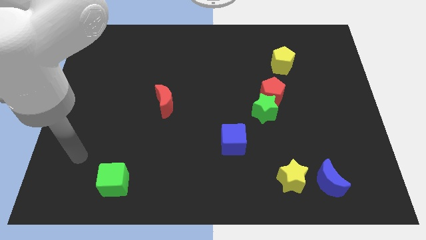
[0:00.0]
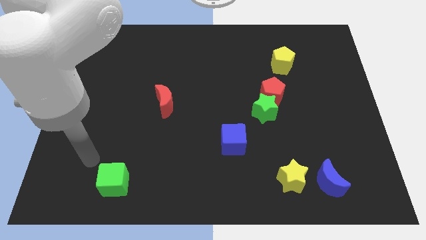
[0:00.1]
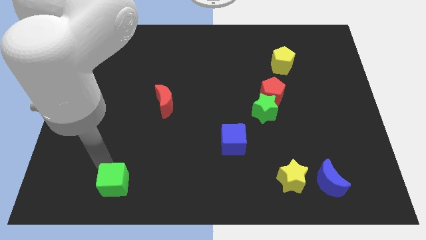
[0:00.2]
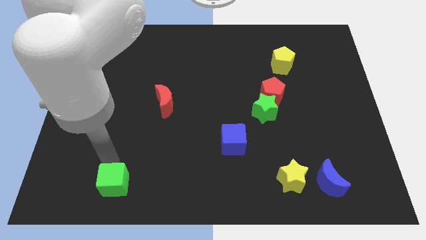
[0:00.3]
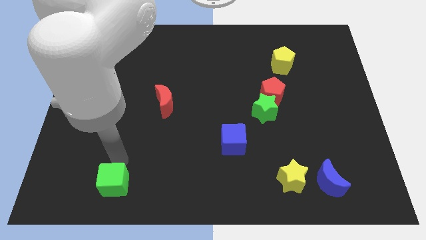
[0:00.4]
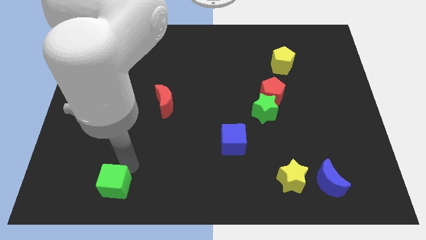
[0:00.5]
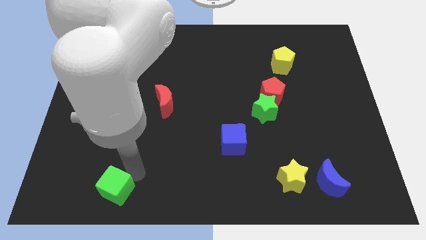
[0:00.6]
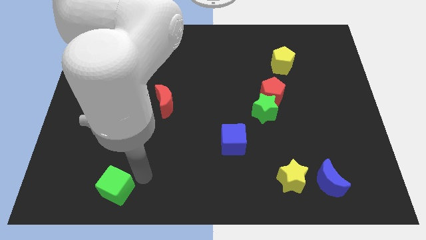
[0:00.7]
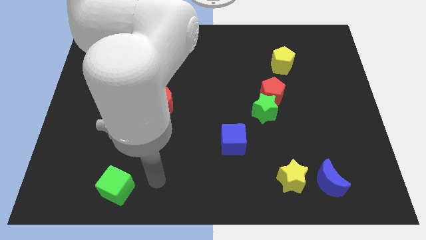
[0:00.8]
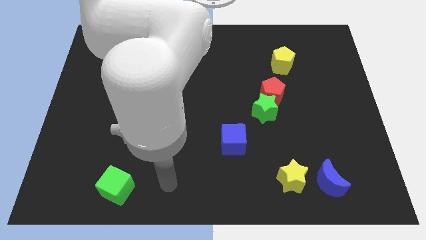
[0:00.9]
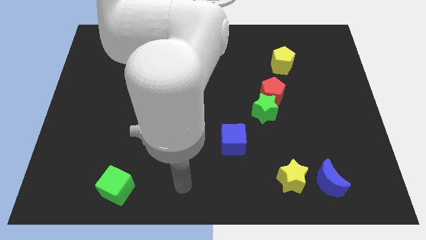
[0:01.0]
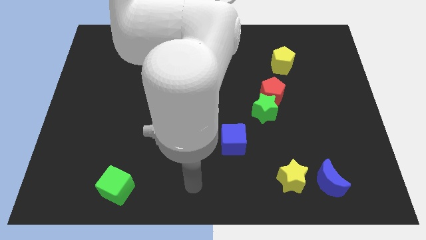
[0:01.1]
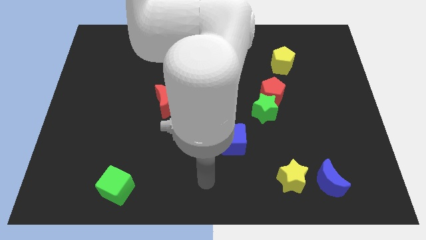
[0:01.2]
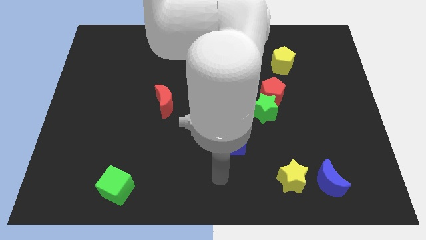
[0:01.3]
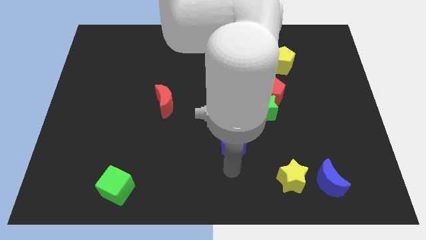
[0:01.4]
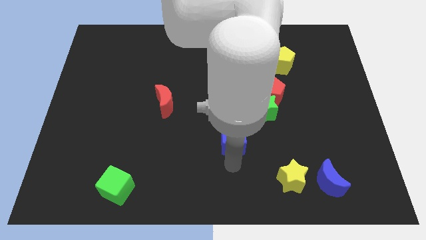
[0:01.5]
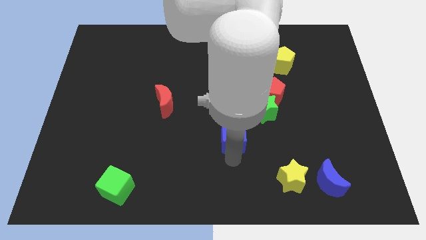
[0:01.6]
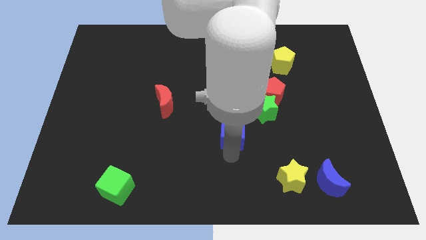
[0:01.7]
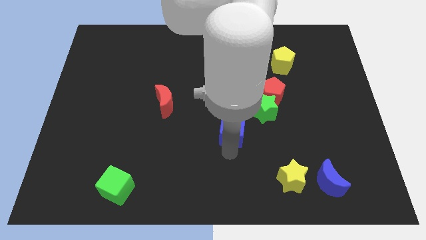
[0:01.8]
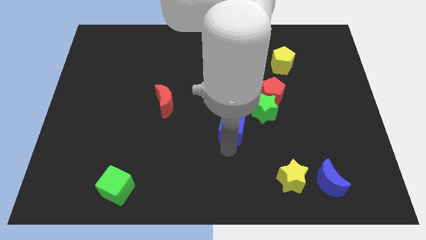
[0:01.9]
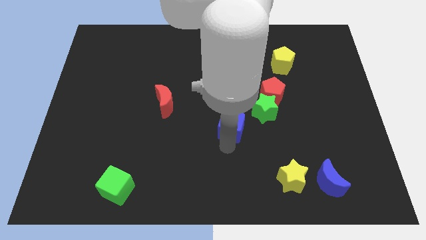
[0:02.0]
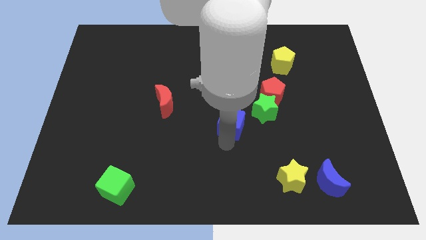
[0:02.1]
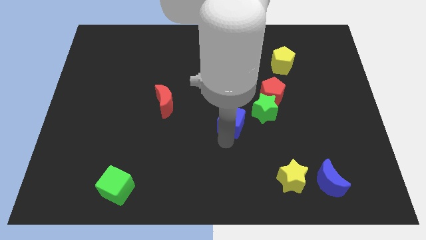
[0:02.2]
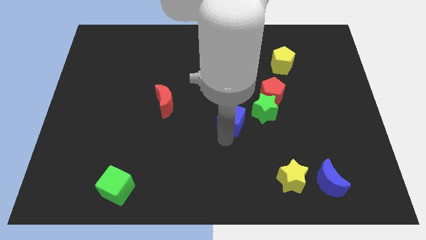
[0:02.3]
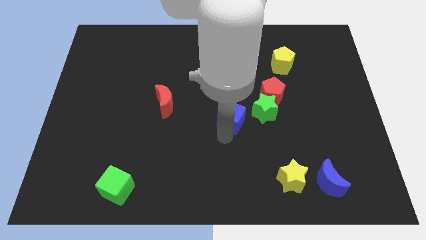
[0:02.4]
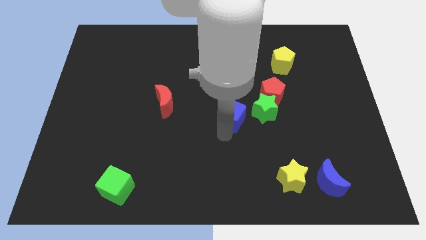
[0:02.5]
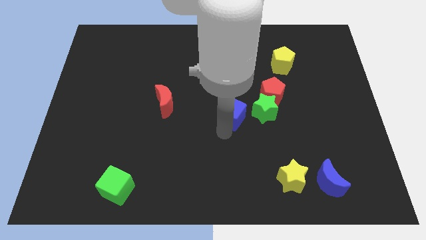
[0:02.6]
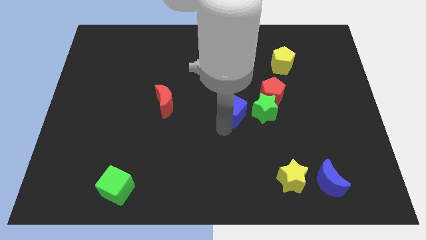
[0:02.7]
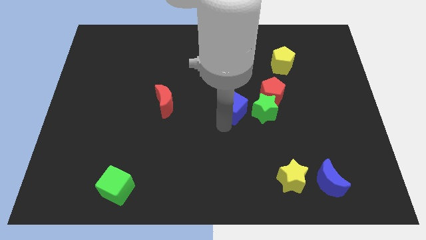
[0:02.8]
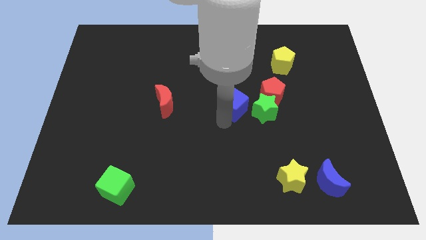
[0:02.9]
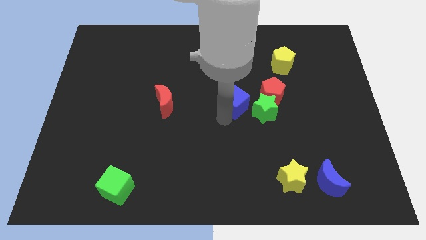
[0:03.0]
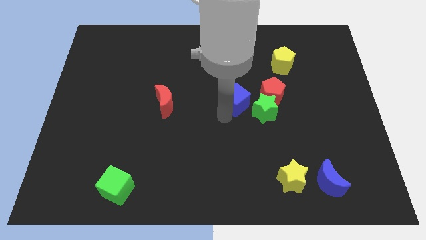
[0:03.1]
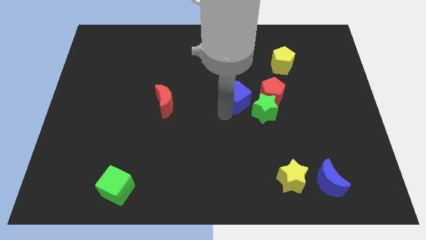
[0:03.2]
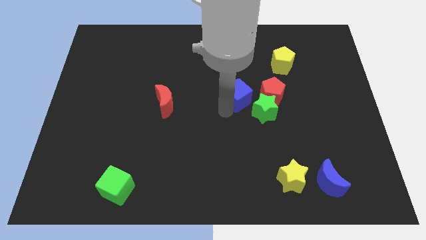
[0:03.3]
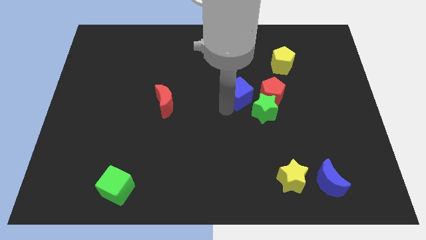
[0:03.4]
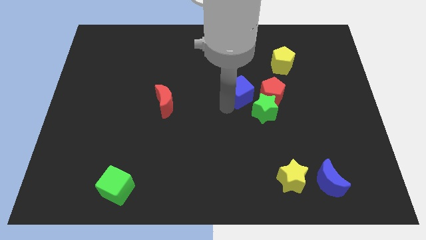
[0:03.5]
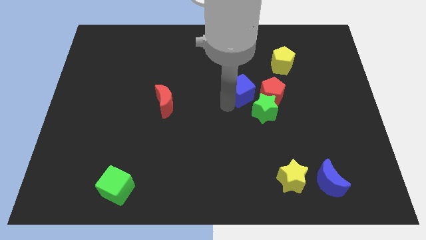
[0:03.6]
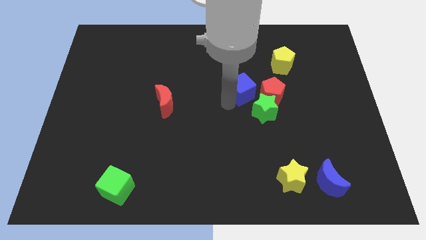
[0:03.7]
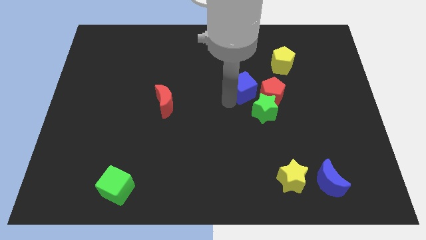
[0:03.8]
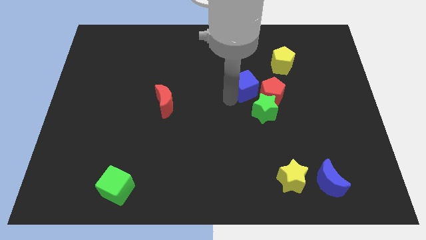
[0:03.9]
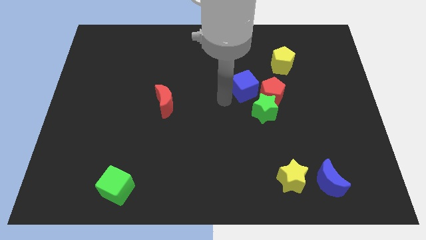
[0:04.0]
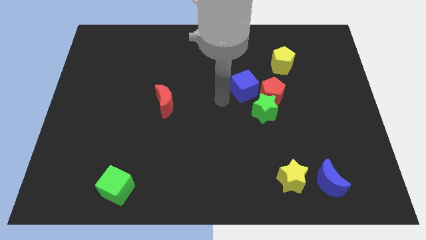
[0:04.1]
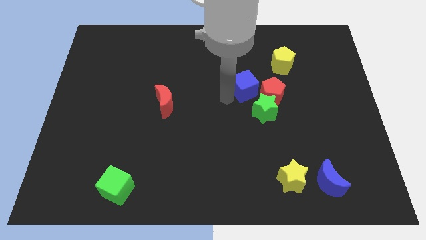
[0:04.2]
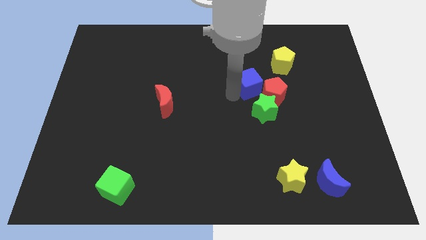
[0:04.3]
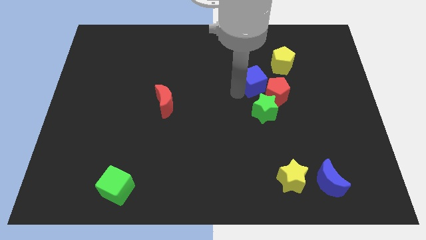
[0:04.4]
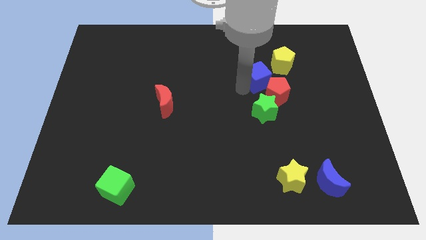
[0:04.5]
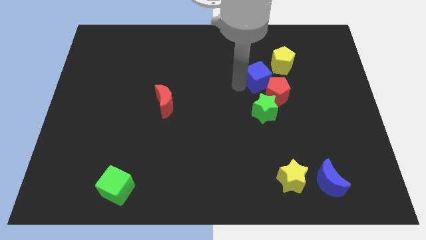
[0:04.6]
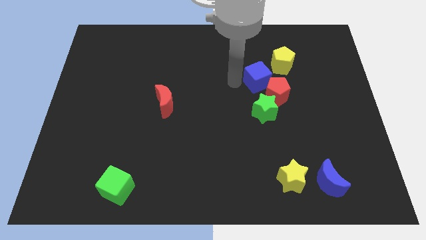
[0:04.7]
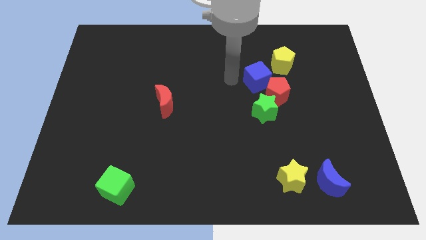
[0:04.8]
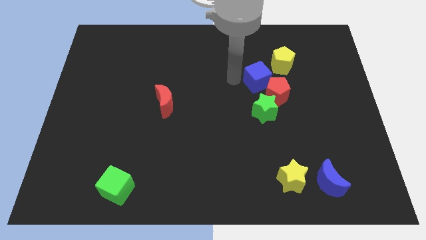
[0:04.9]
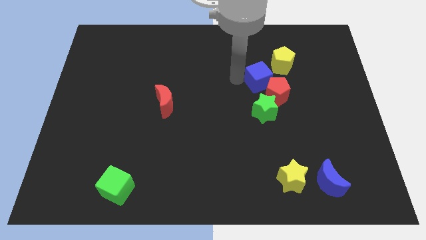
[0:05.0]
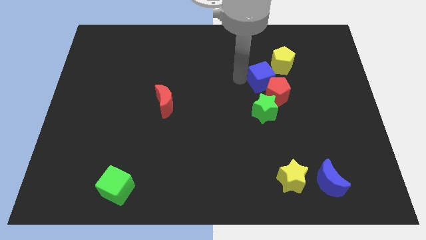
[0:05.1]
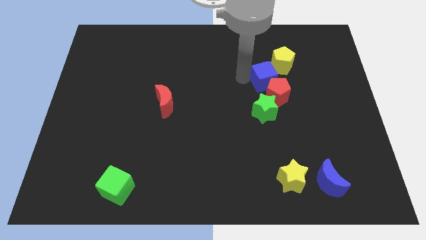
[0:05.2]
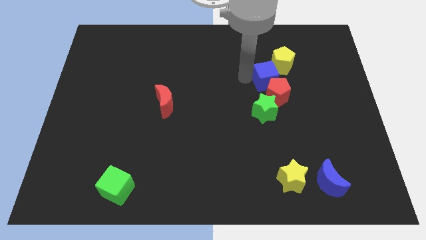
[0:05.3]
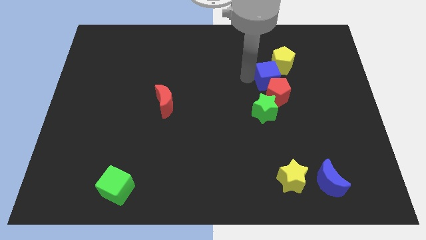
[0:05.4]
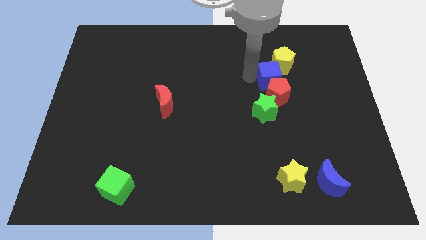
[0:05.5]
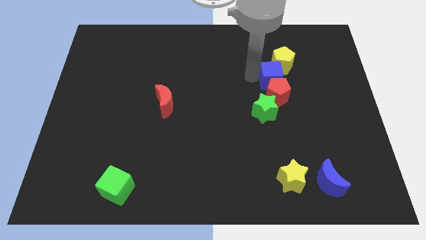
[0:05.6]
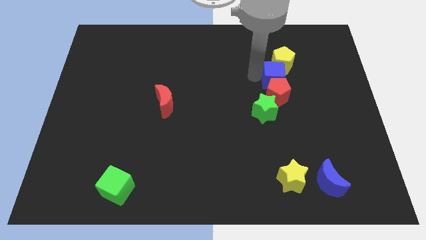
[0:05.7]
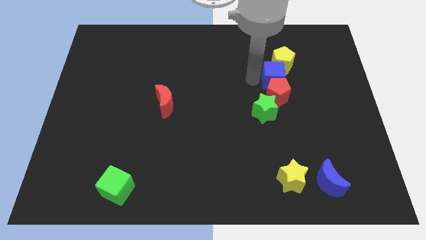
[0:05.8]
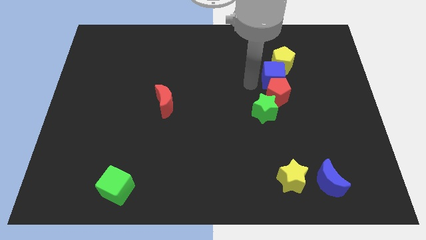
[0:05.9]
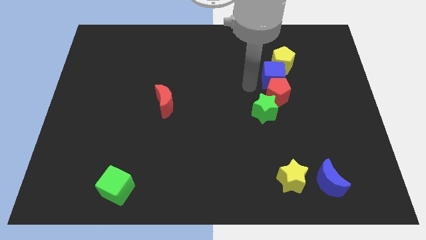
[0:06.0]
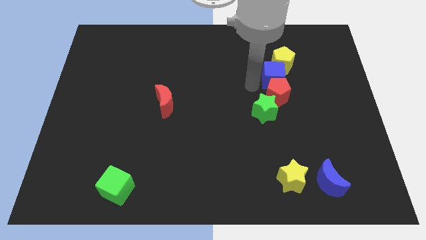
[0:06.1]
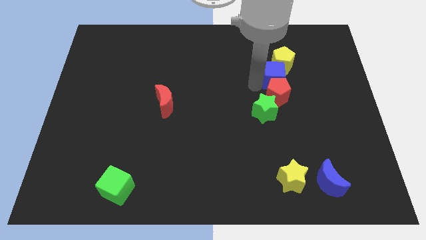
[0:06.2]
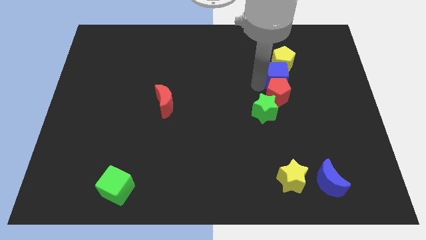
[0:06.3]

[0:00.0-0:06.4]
push the blue cube up and to the right diagonally
